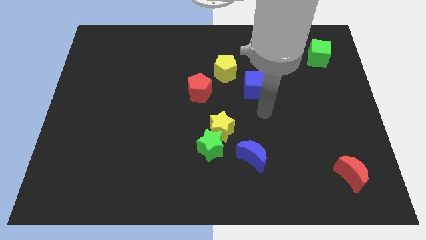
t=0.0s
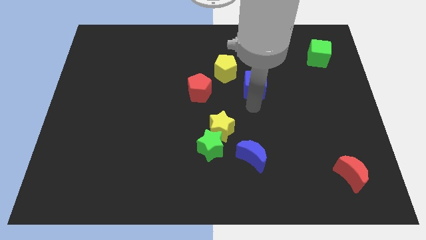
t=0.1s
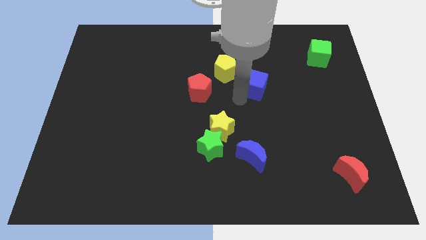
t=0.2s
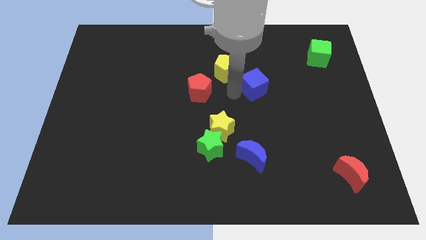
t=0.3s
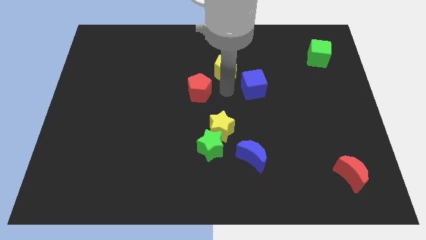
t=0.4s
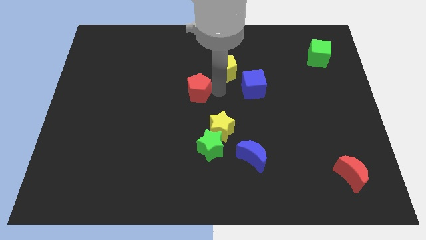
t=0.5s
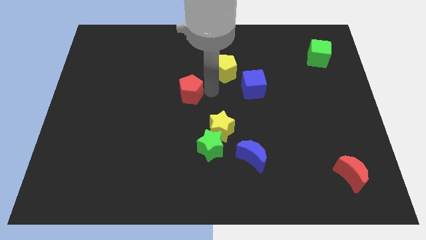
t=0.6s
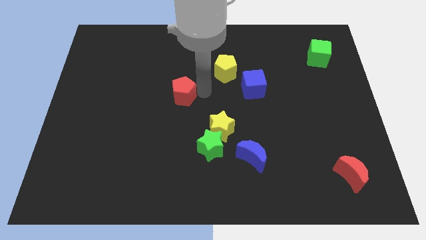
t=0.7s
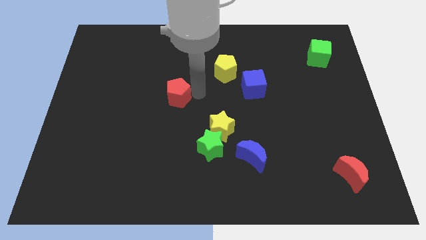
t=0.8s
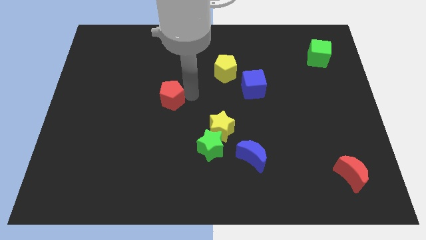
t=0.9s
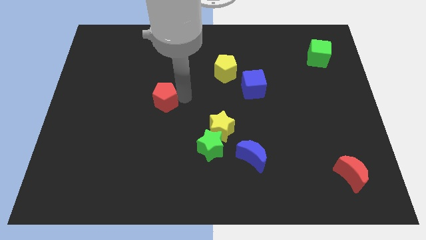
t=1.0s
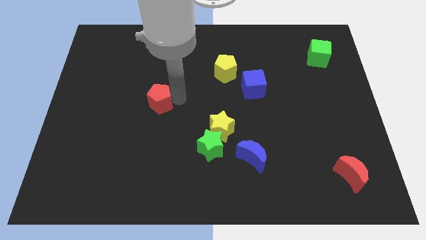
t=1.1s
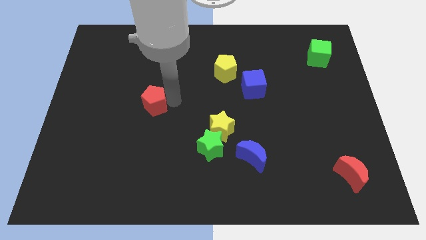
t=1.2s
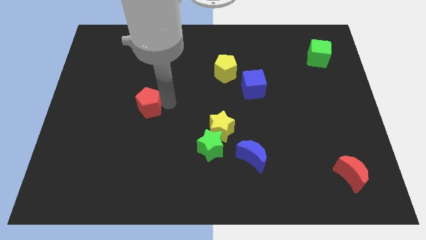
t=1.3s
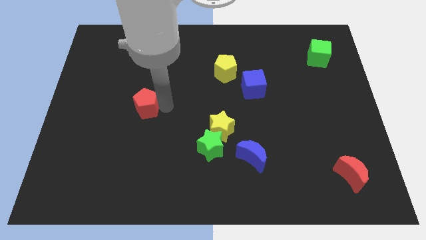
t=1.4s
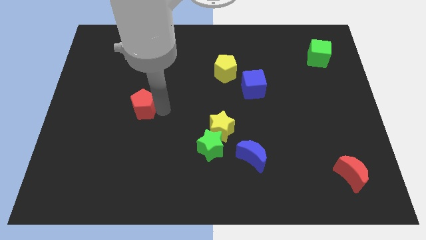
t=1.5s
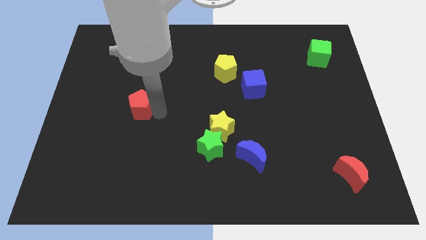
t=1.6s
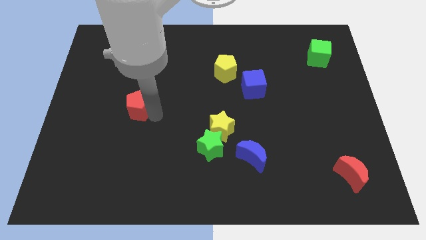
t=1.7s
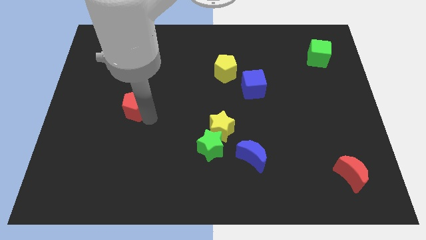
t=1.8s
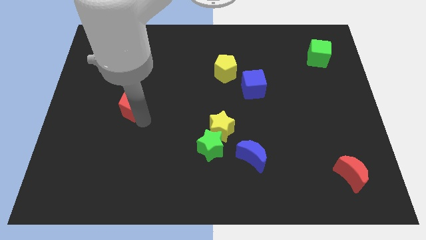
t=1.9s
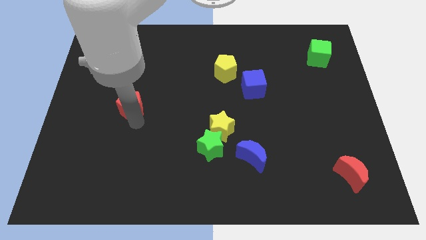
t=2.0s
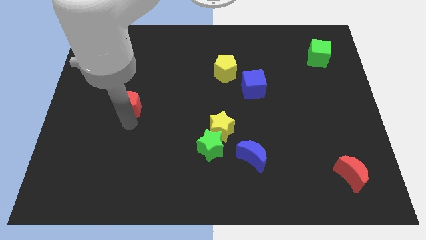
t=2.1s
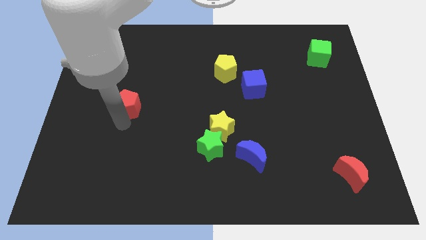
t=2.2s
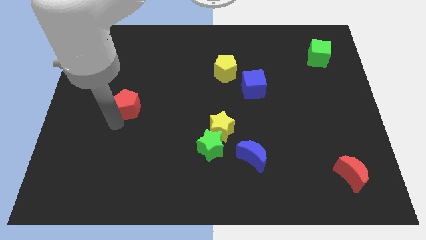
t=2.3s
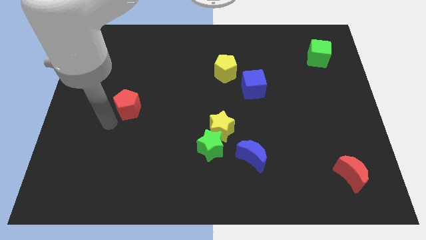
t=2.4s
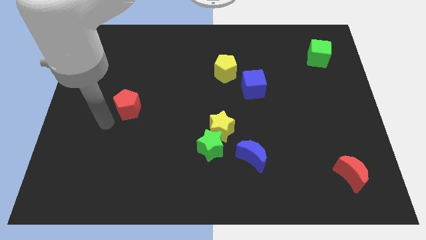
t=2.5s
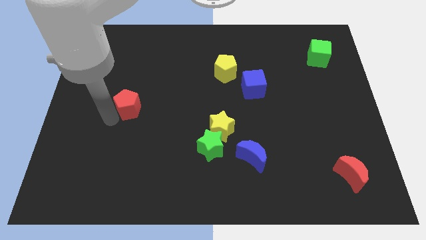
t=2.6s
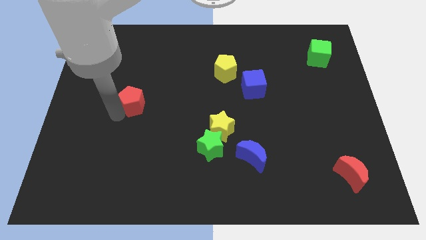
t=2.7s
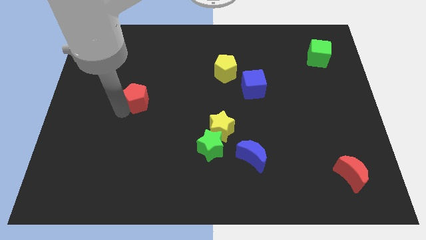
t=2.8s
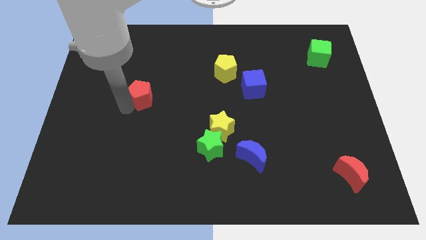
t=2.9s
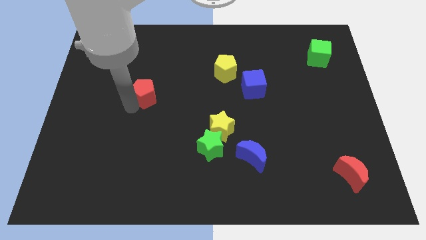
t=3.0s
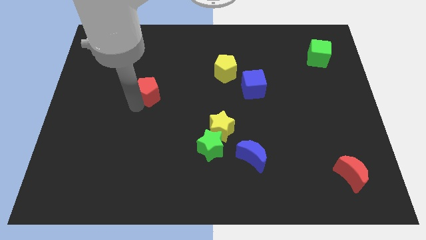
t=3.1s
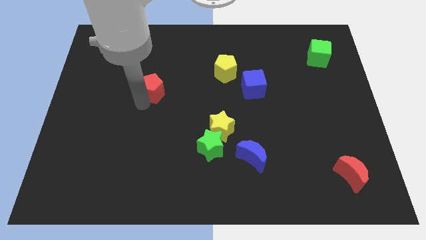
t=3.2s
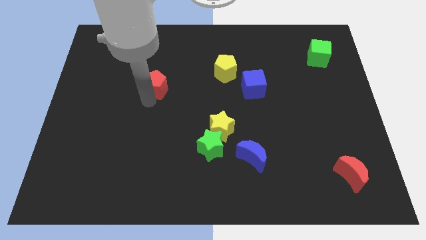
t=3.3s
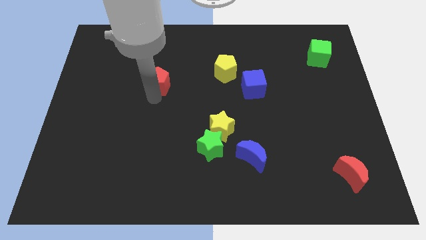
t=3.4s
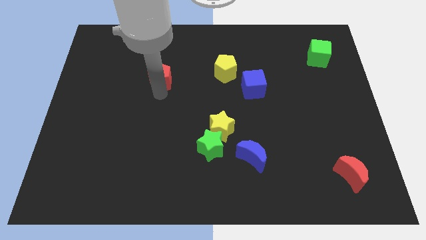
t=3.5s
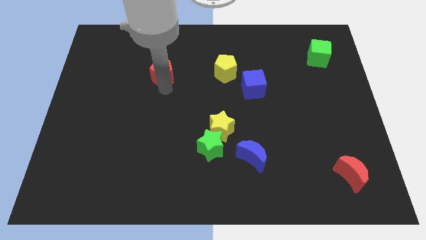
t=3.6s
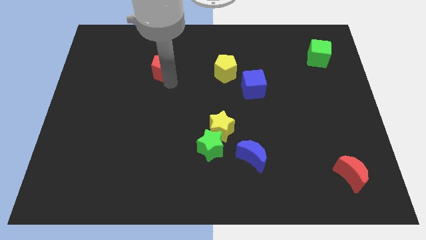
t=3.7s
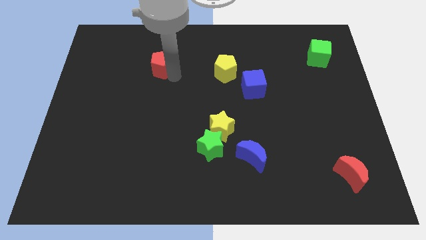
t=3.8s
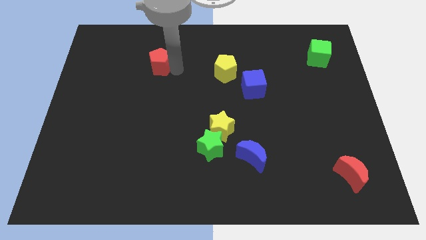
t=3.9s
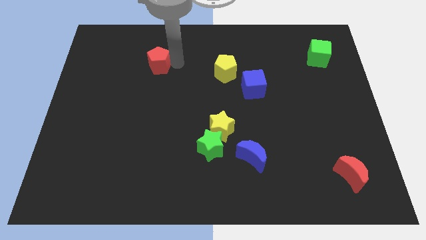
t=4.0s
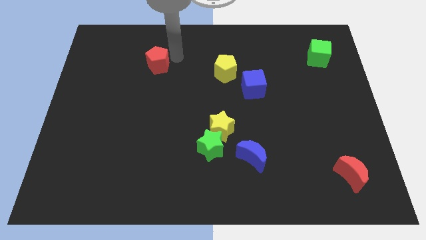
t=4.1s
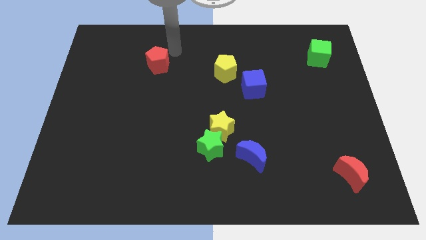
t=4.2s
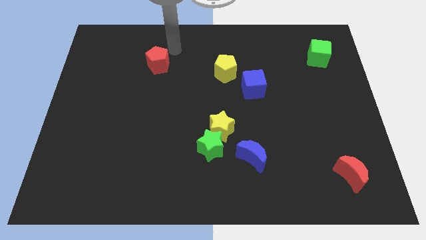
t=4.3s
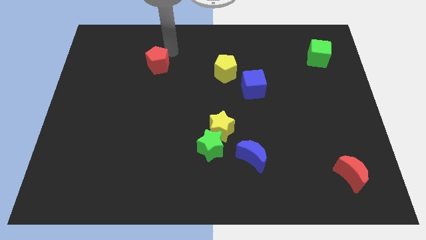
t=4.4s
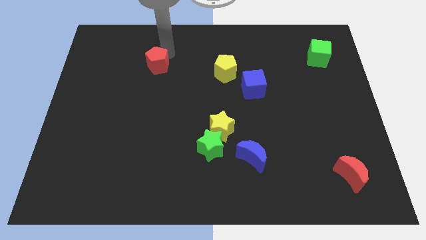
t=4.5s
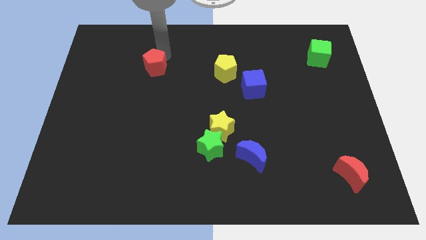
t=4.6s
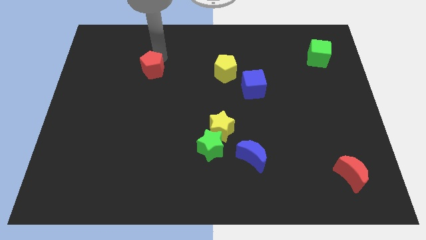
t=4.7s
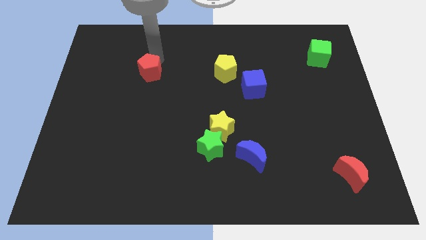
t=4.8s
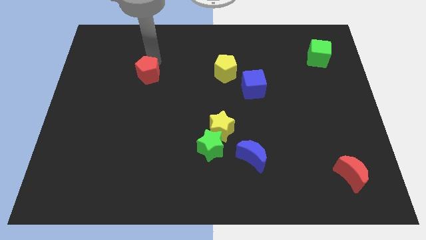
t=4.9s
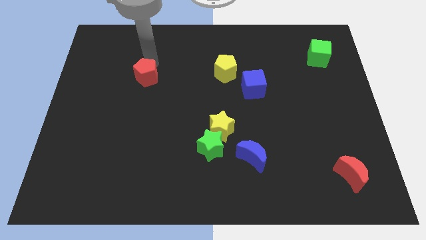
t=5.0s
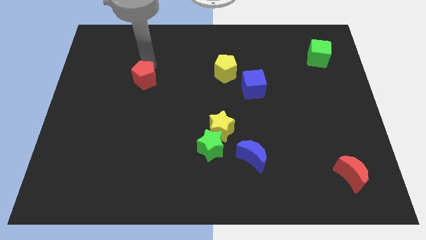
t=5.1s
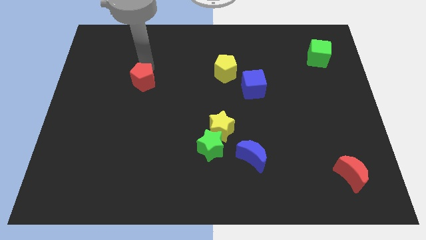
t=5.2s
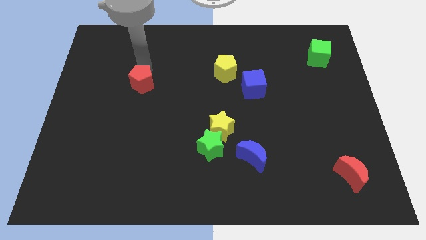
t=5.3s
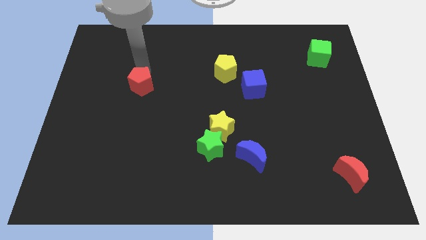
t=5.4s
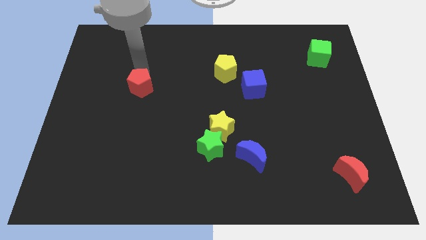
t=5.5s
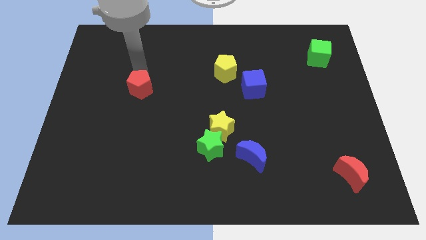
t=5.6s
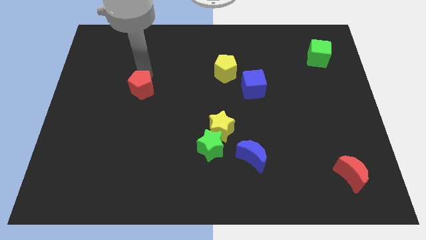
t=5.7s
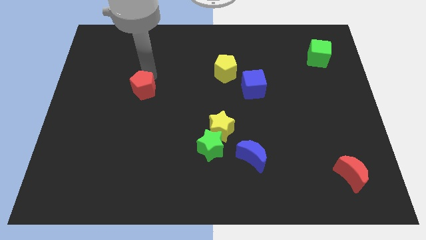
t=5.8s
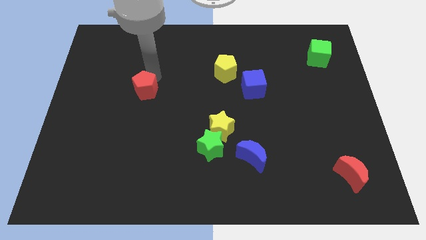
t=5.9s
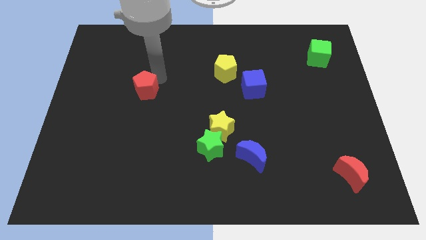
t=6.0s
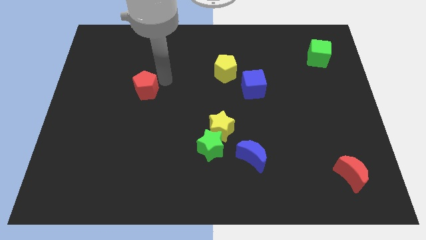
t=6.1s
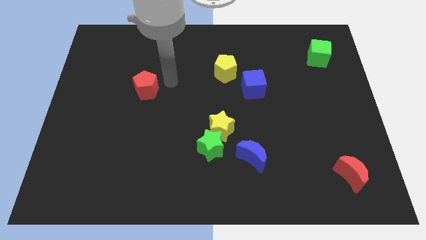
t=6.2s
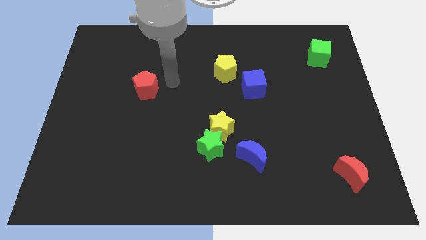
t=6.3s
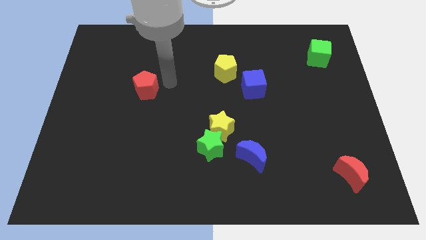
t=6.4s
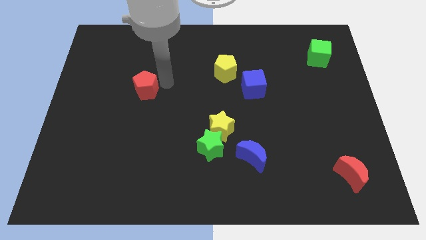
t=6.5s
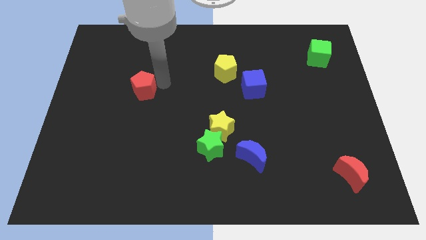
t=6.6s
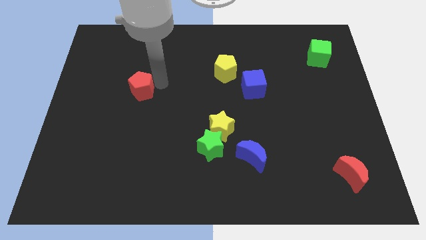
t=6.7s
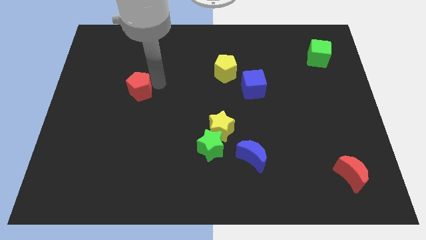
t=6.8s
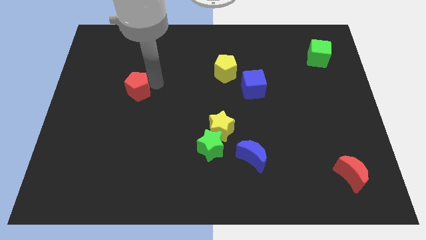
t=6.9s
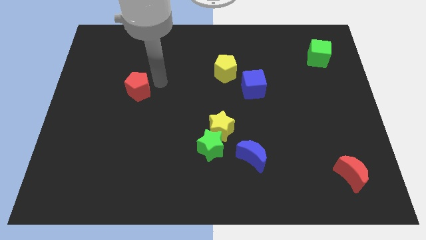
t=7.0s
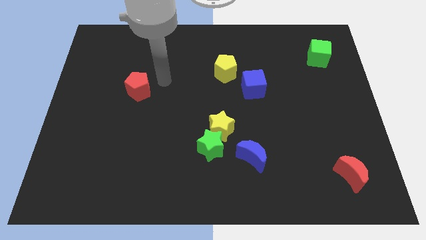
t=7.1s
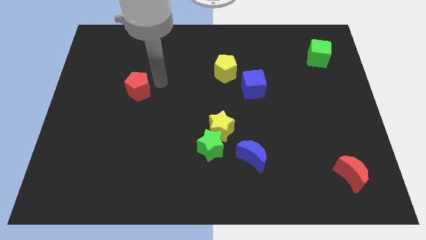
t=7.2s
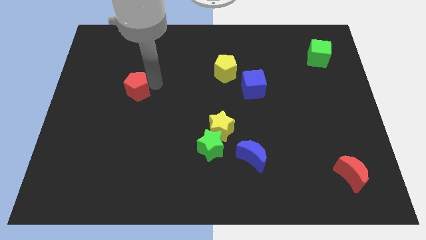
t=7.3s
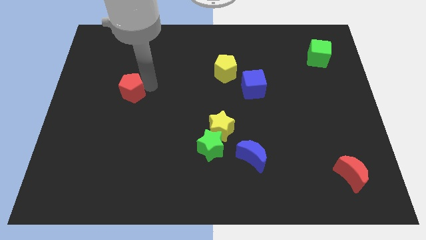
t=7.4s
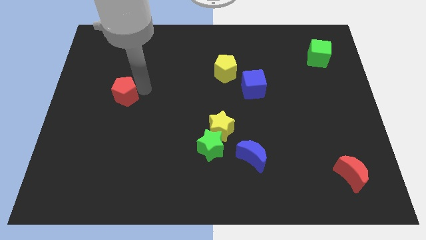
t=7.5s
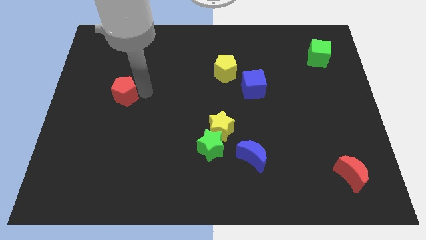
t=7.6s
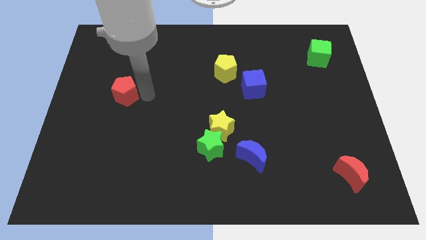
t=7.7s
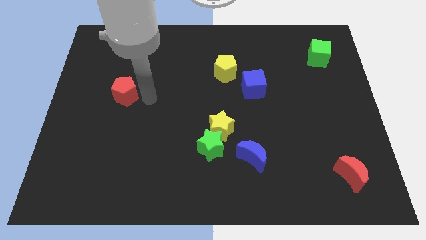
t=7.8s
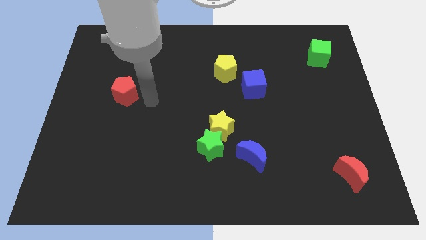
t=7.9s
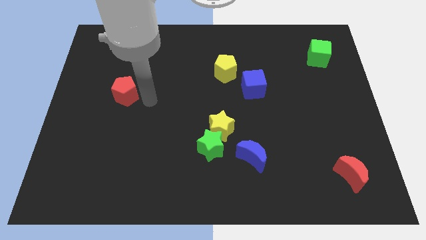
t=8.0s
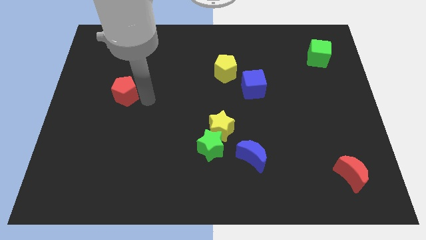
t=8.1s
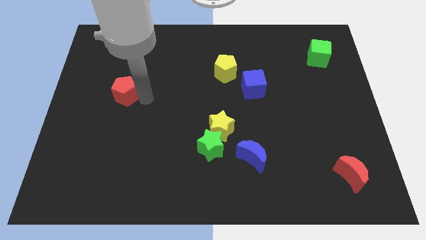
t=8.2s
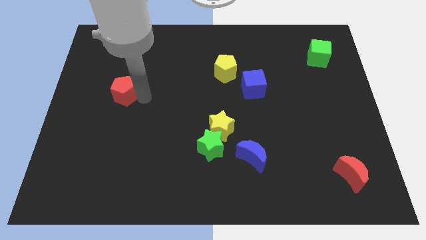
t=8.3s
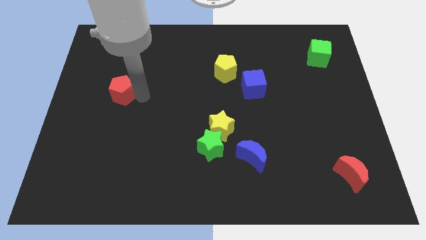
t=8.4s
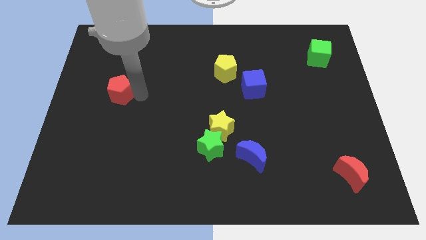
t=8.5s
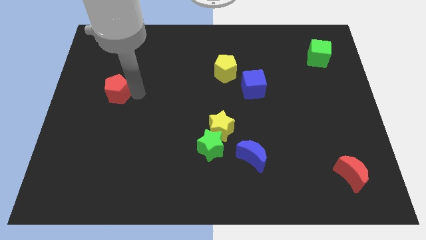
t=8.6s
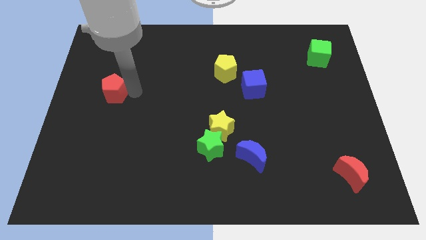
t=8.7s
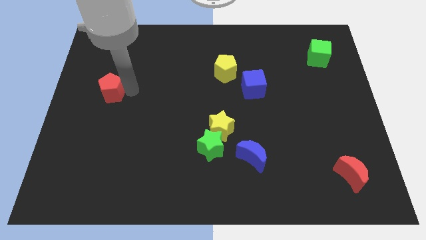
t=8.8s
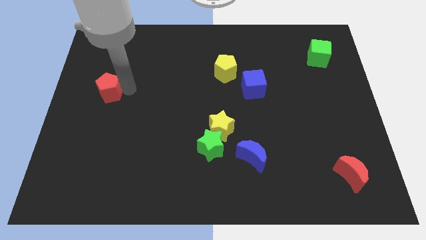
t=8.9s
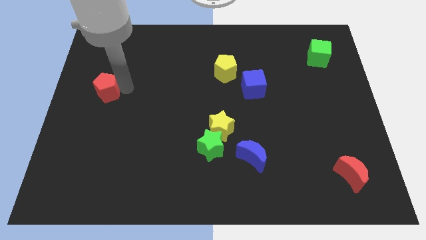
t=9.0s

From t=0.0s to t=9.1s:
put the red pentagon to the center left
